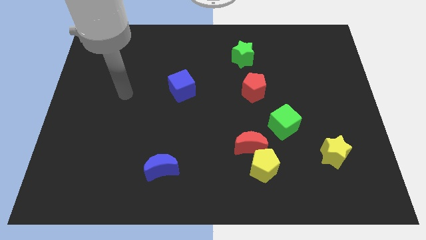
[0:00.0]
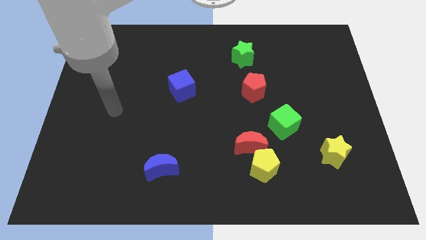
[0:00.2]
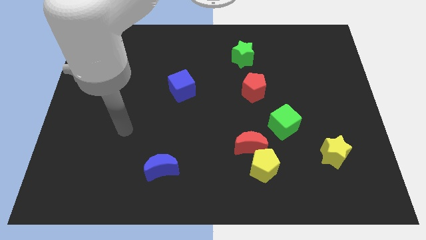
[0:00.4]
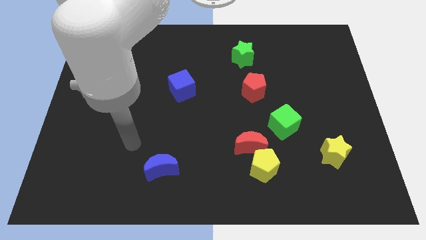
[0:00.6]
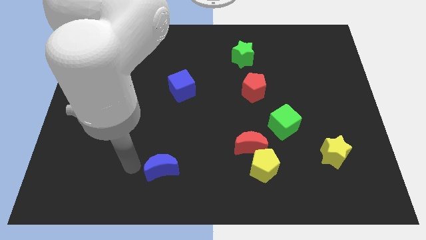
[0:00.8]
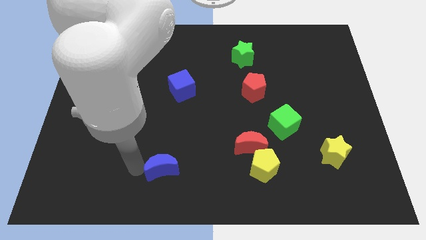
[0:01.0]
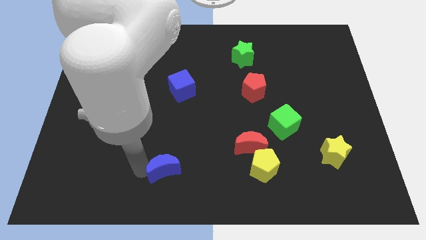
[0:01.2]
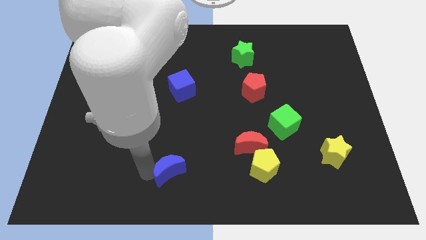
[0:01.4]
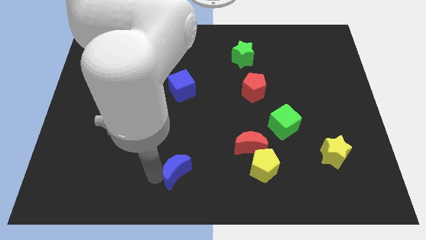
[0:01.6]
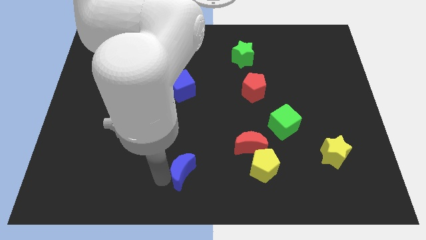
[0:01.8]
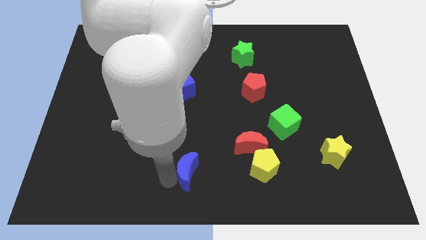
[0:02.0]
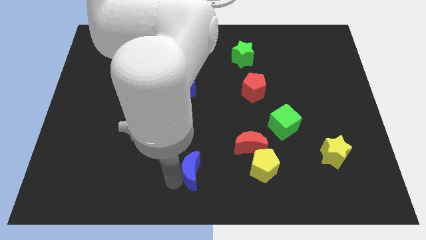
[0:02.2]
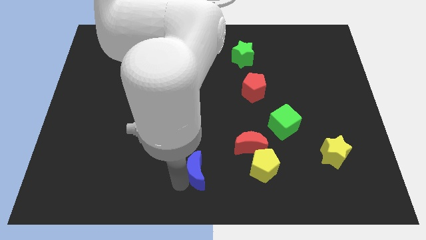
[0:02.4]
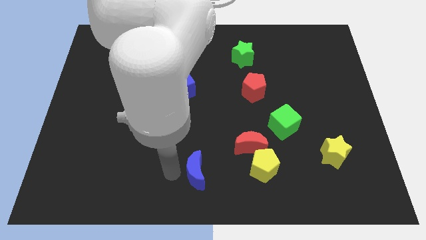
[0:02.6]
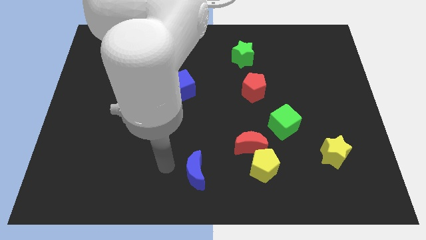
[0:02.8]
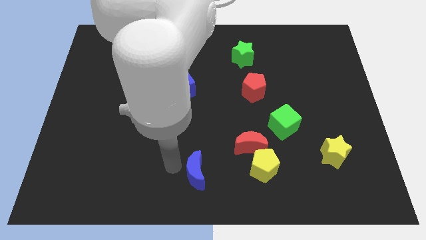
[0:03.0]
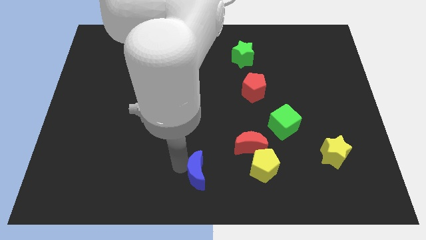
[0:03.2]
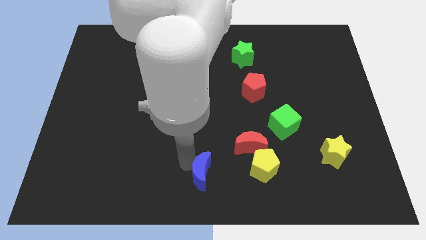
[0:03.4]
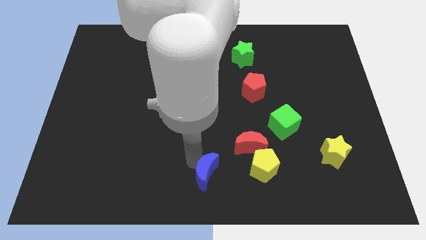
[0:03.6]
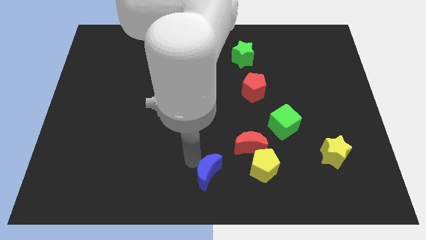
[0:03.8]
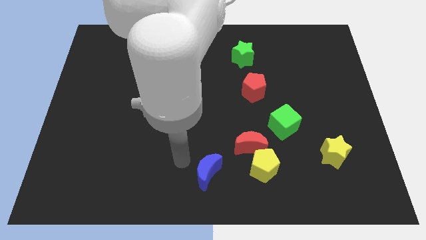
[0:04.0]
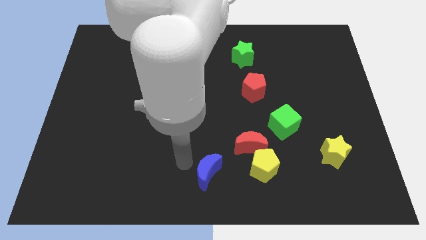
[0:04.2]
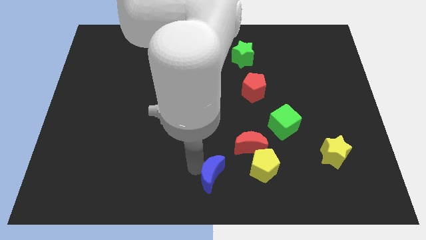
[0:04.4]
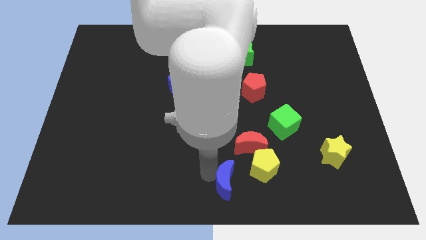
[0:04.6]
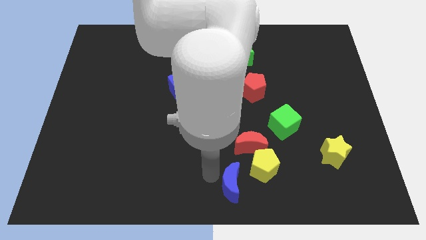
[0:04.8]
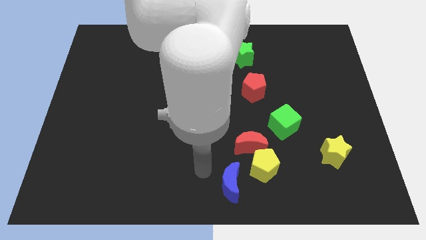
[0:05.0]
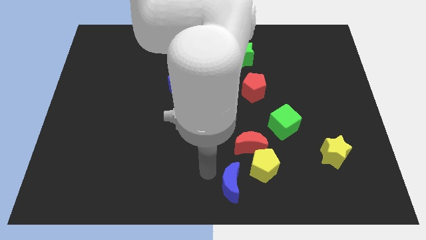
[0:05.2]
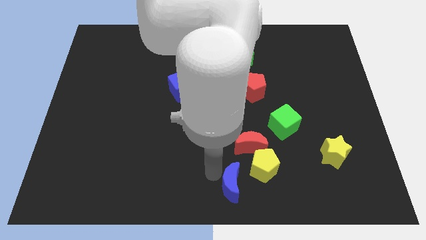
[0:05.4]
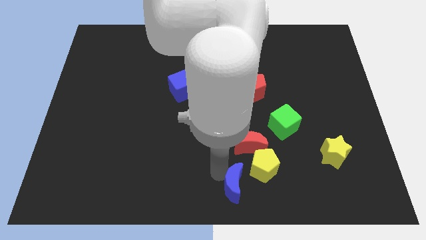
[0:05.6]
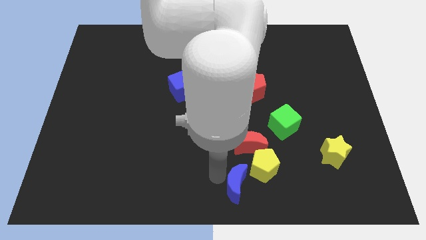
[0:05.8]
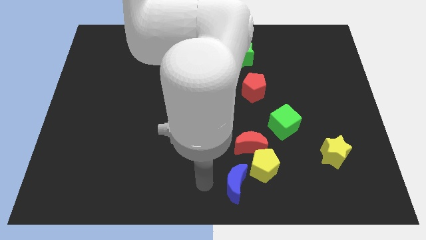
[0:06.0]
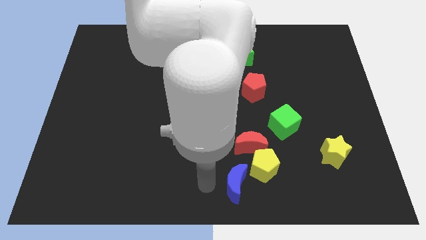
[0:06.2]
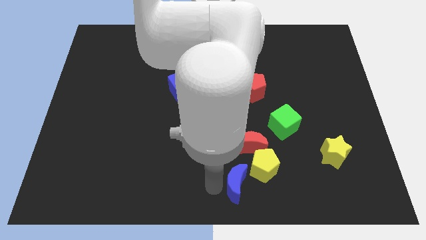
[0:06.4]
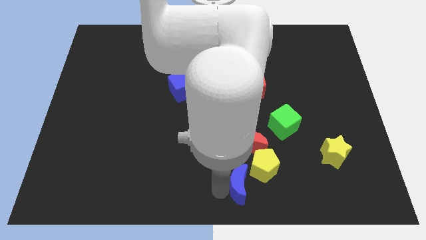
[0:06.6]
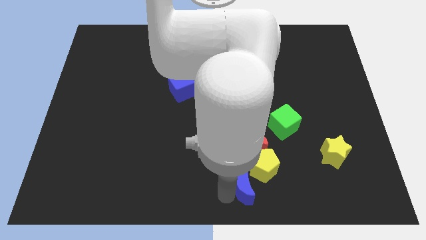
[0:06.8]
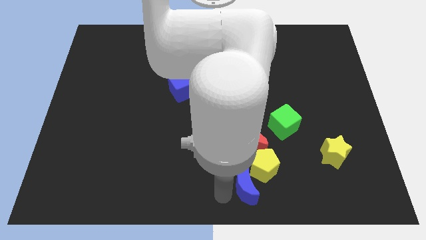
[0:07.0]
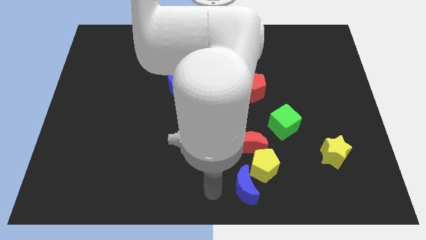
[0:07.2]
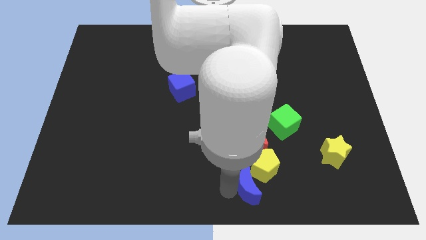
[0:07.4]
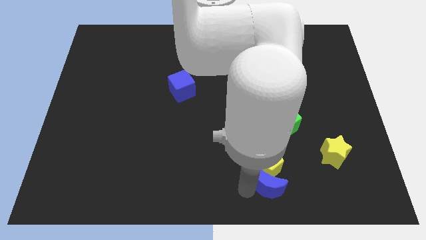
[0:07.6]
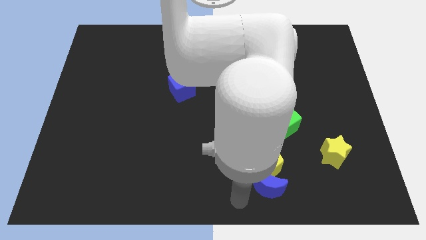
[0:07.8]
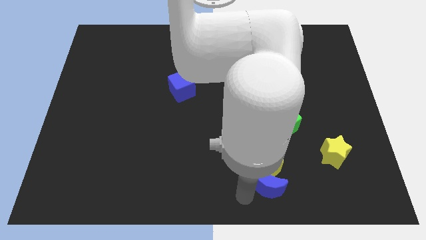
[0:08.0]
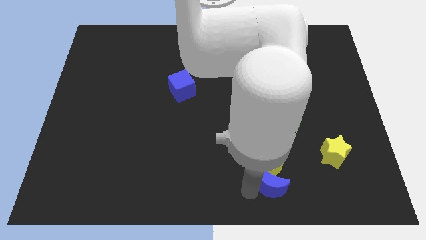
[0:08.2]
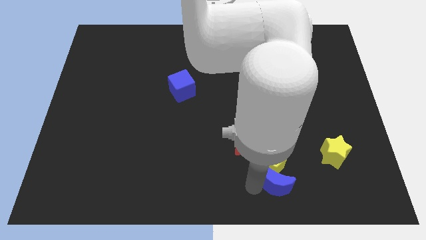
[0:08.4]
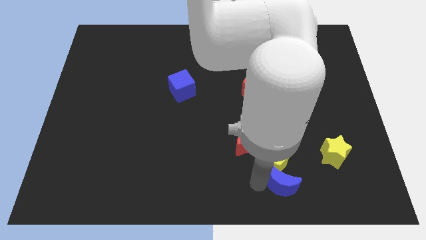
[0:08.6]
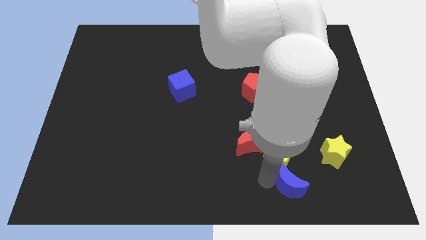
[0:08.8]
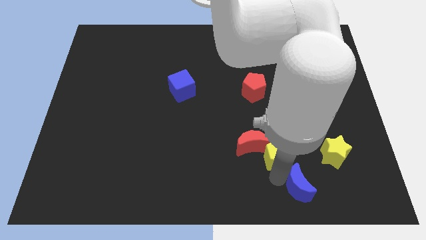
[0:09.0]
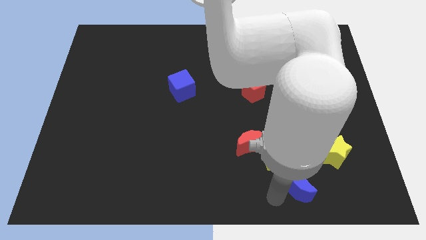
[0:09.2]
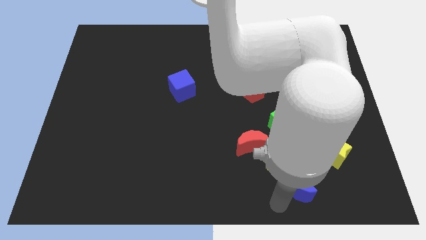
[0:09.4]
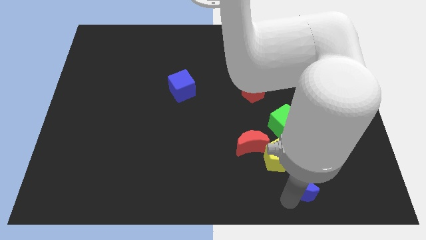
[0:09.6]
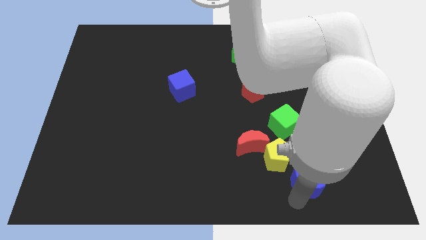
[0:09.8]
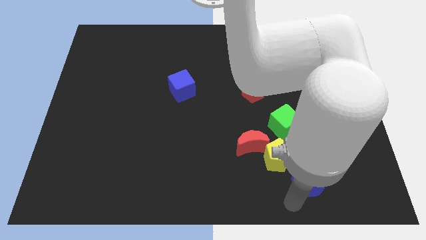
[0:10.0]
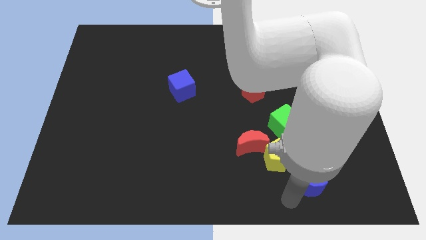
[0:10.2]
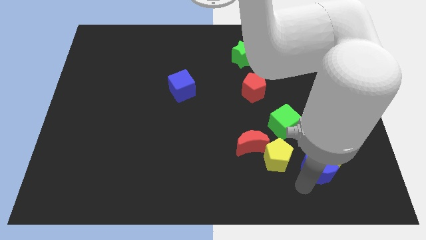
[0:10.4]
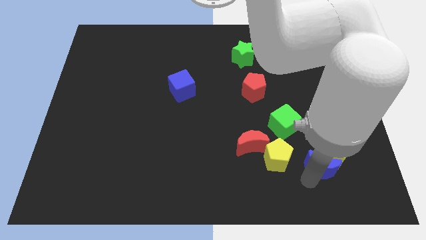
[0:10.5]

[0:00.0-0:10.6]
slide the blue moon to the yellow star

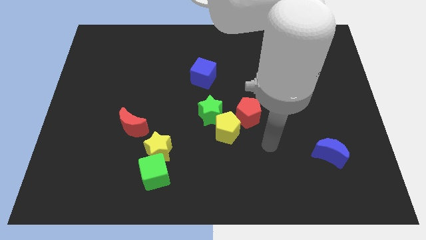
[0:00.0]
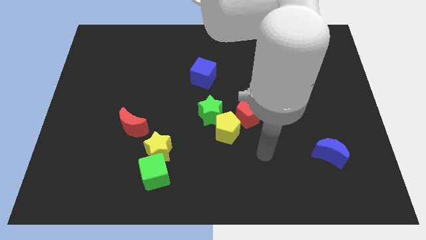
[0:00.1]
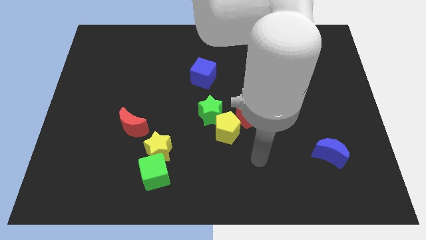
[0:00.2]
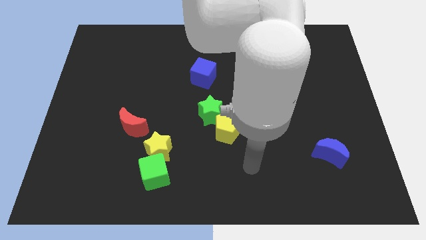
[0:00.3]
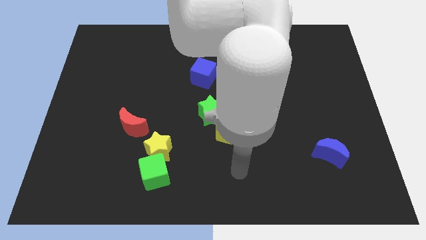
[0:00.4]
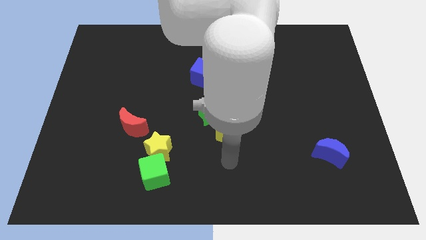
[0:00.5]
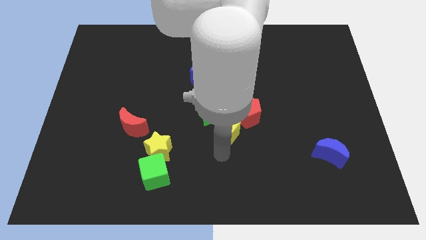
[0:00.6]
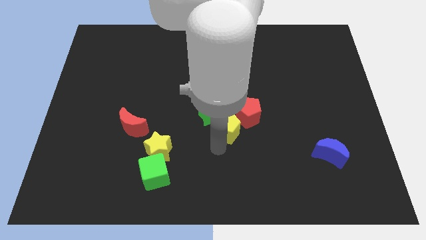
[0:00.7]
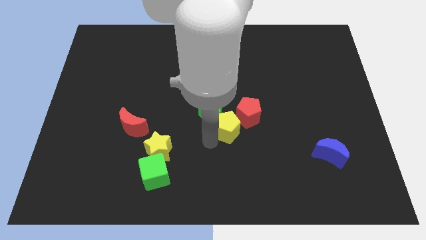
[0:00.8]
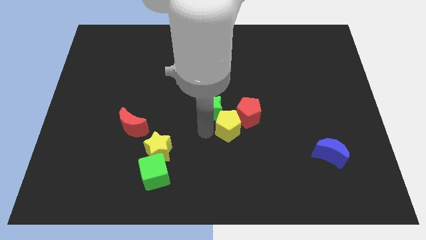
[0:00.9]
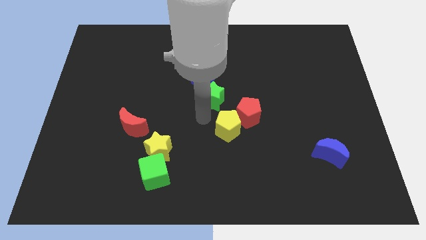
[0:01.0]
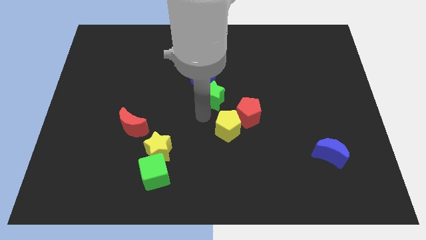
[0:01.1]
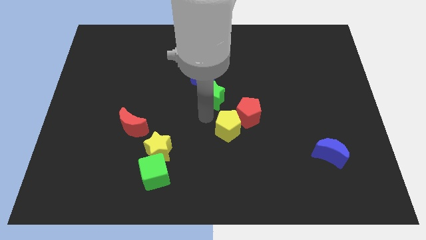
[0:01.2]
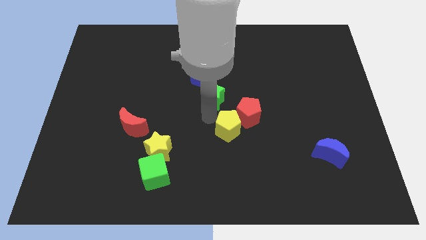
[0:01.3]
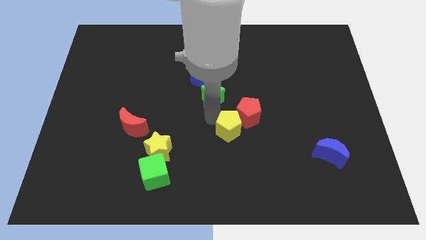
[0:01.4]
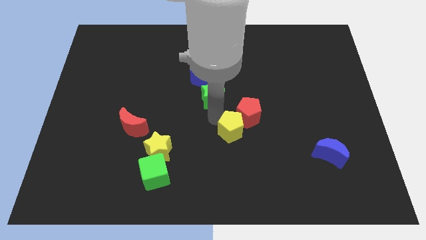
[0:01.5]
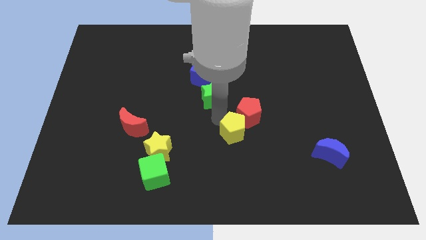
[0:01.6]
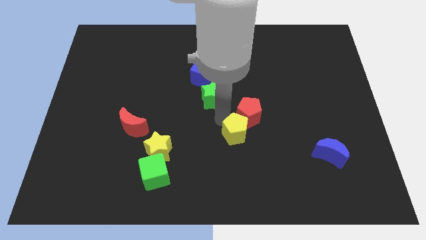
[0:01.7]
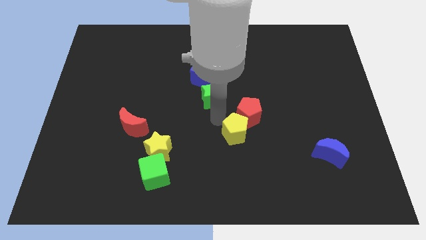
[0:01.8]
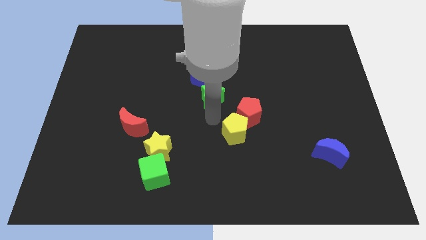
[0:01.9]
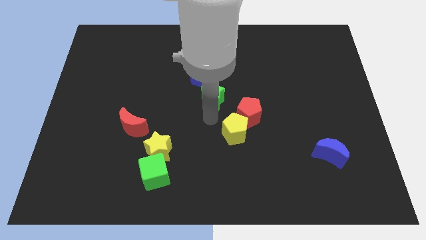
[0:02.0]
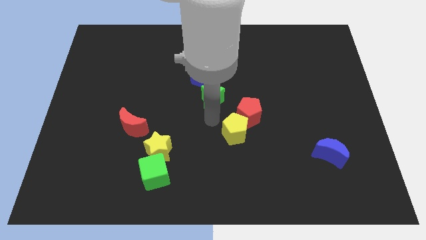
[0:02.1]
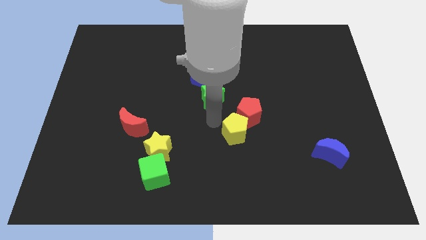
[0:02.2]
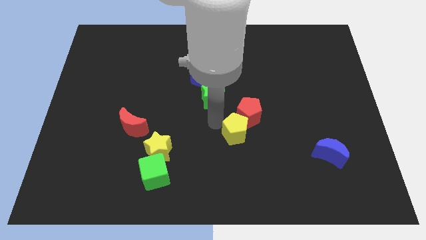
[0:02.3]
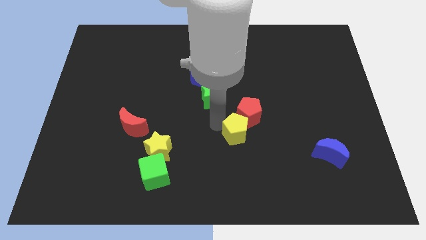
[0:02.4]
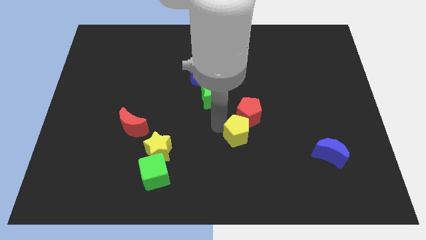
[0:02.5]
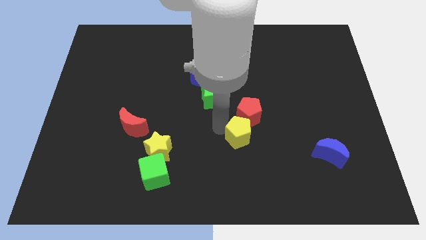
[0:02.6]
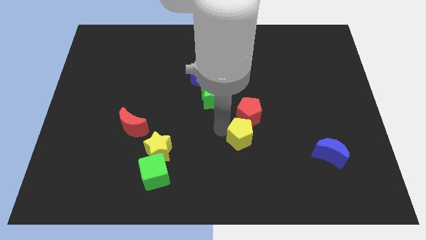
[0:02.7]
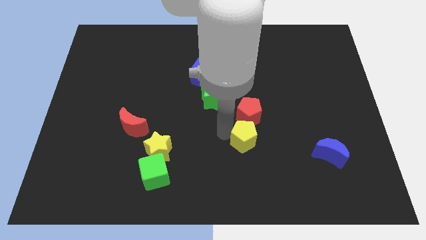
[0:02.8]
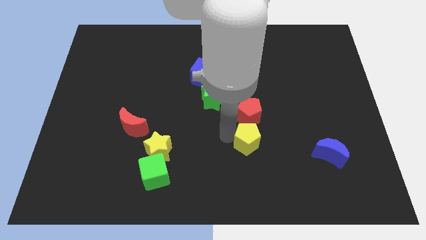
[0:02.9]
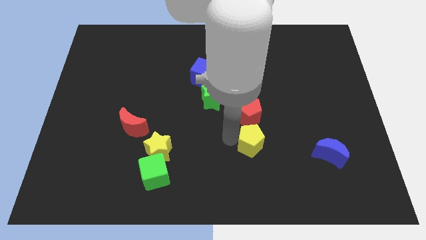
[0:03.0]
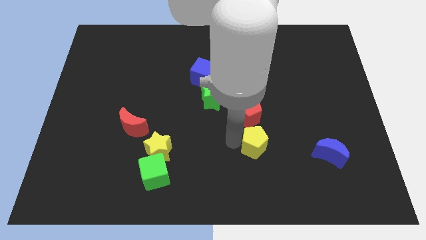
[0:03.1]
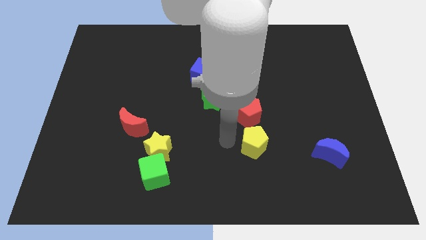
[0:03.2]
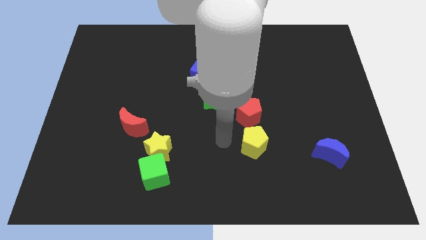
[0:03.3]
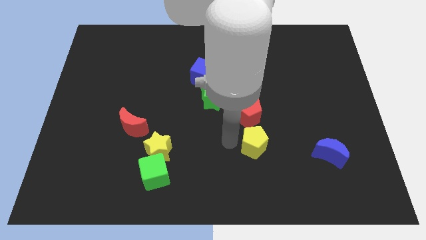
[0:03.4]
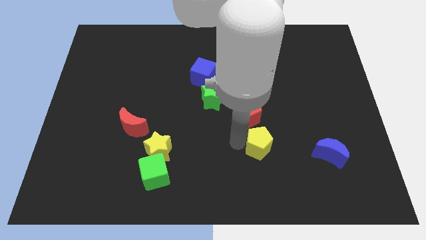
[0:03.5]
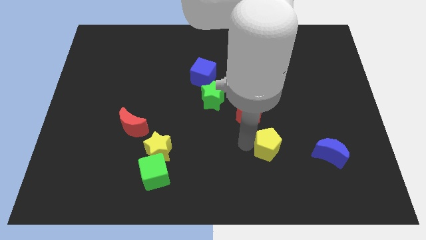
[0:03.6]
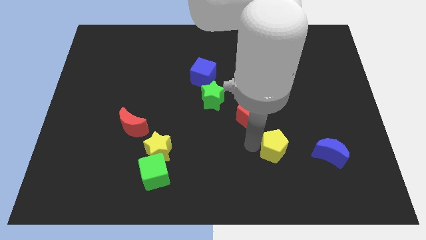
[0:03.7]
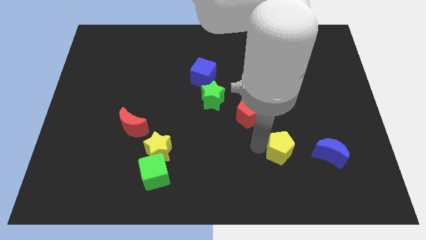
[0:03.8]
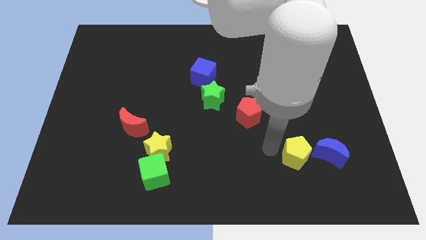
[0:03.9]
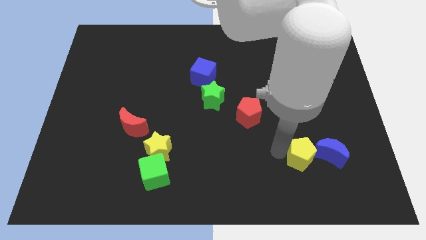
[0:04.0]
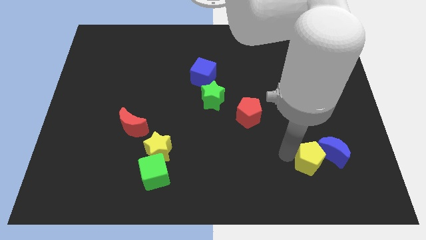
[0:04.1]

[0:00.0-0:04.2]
push the yellow pentagon towards the blue moon
